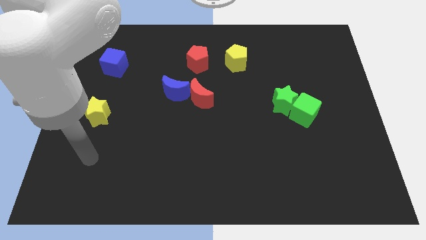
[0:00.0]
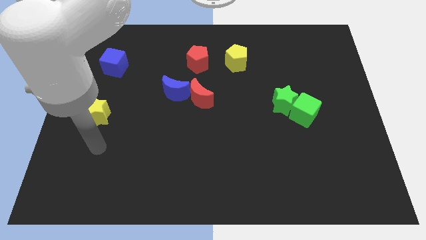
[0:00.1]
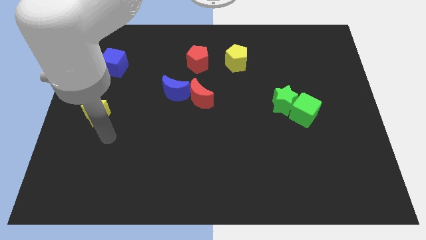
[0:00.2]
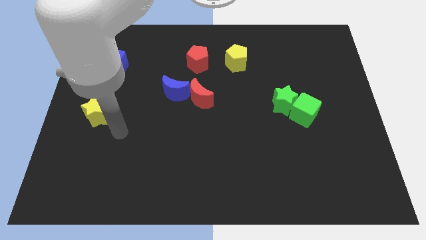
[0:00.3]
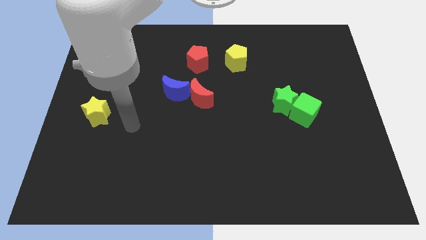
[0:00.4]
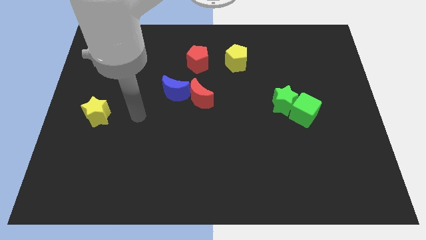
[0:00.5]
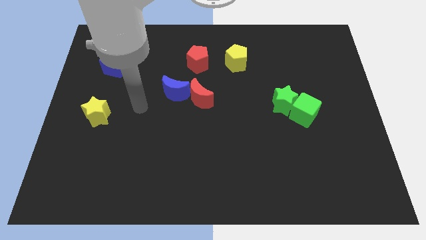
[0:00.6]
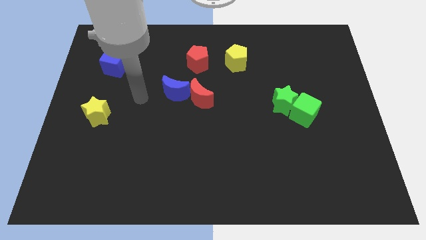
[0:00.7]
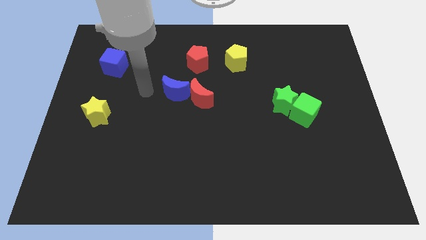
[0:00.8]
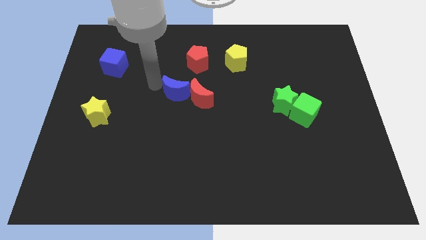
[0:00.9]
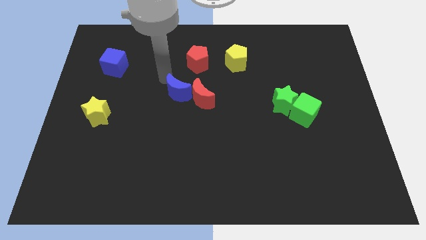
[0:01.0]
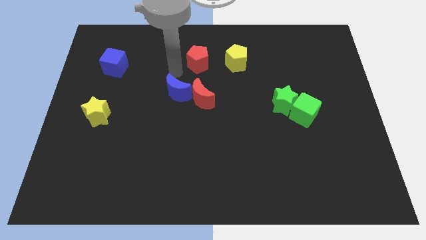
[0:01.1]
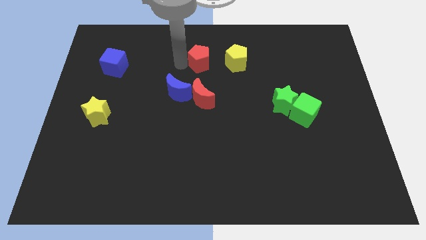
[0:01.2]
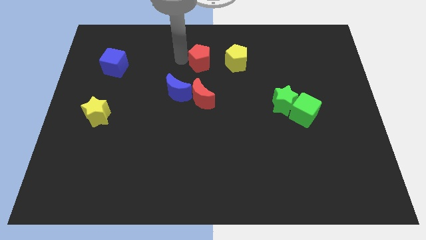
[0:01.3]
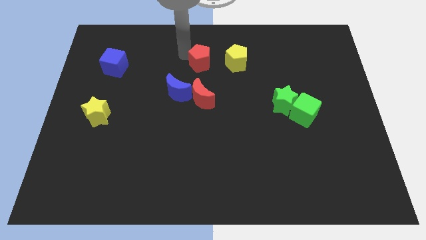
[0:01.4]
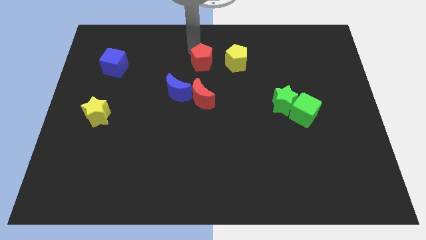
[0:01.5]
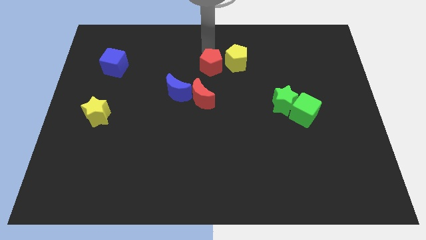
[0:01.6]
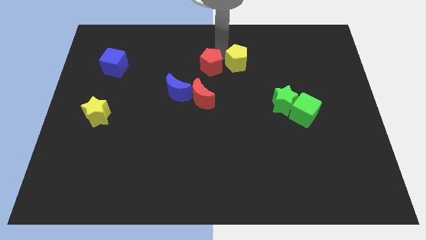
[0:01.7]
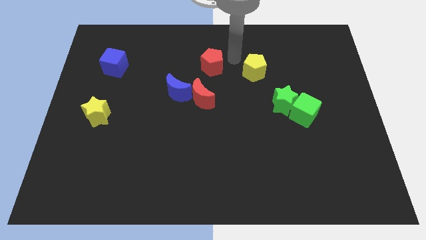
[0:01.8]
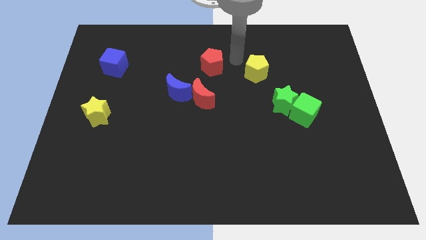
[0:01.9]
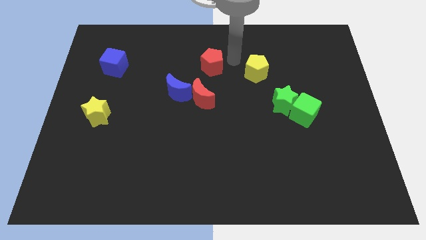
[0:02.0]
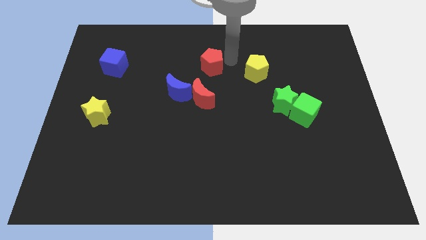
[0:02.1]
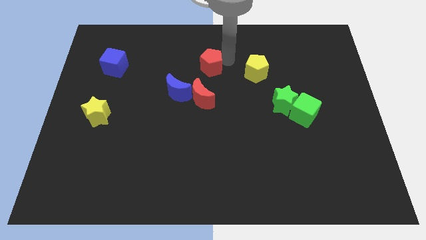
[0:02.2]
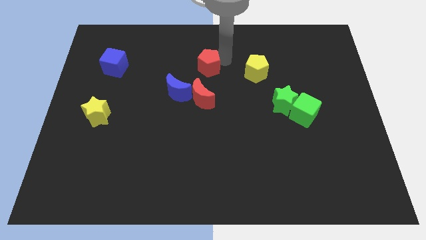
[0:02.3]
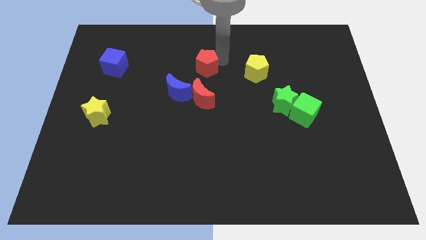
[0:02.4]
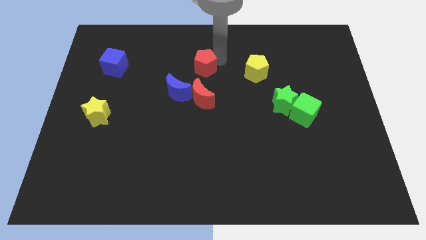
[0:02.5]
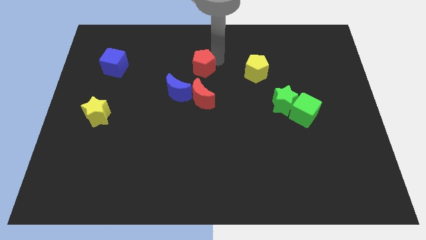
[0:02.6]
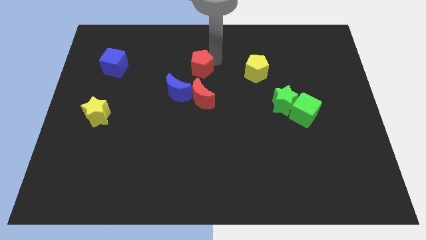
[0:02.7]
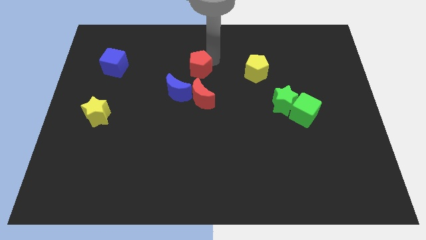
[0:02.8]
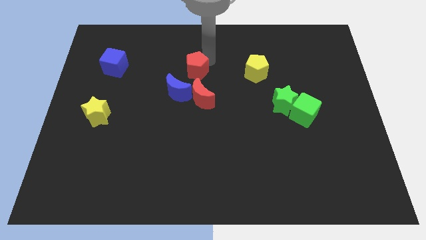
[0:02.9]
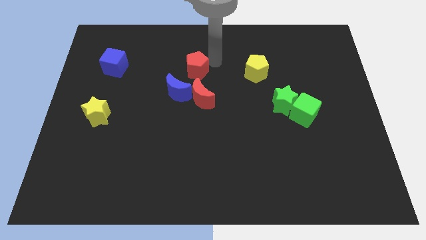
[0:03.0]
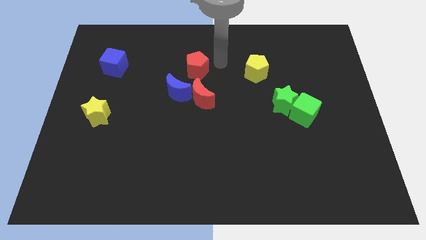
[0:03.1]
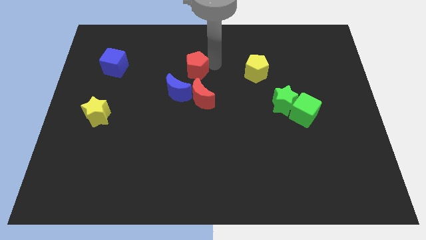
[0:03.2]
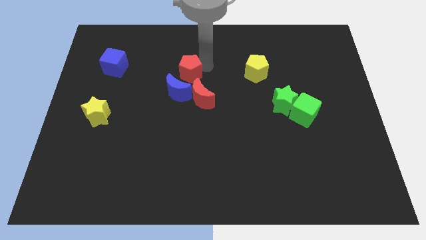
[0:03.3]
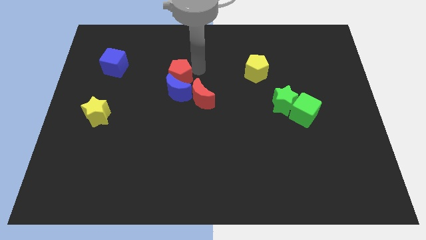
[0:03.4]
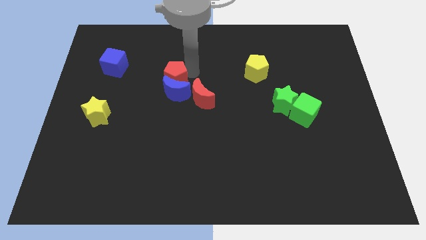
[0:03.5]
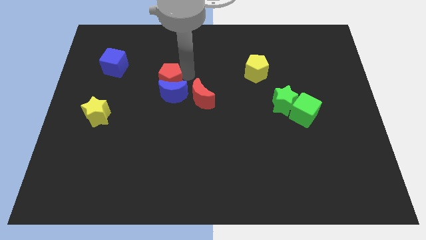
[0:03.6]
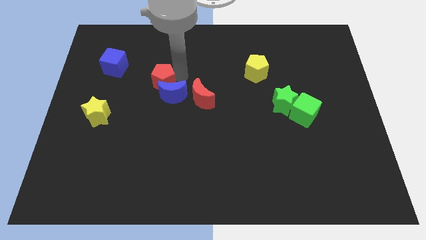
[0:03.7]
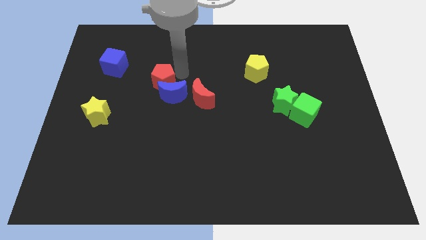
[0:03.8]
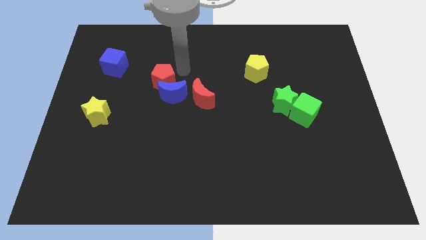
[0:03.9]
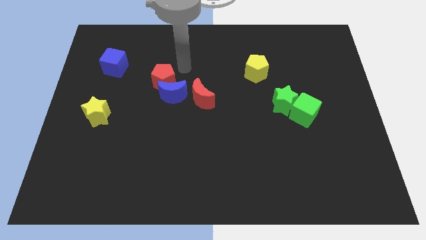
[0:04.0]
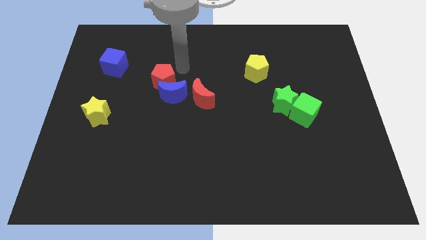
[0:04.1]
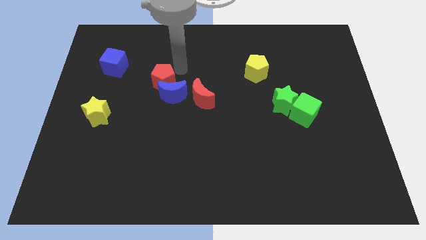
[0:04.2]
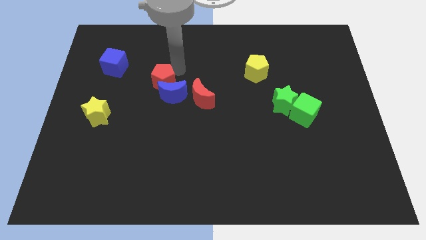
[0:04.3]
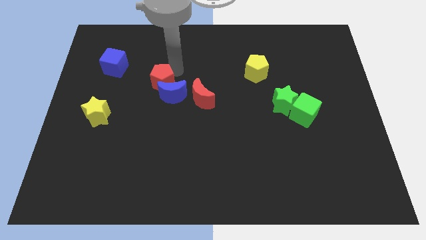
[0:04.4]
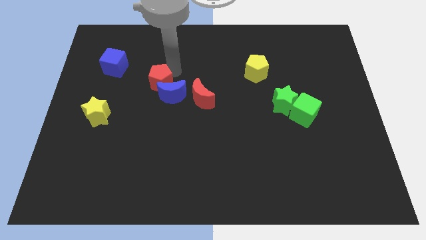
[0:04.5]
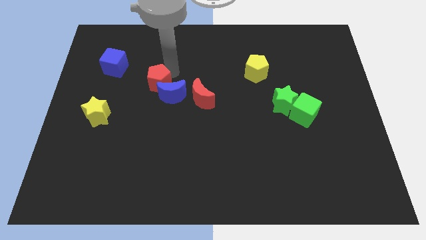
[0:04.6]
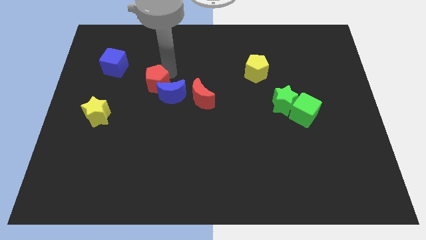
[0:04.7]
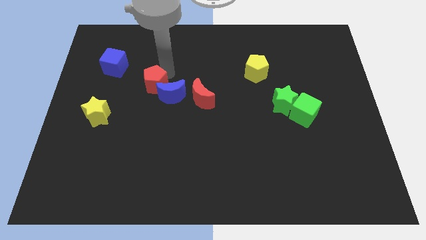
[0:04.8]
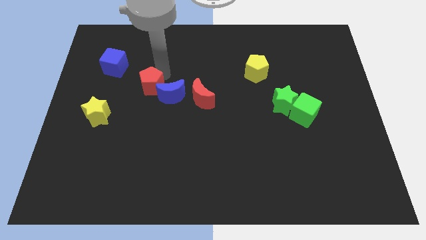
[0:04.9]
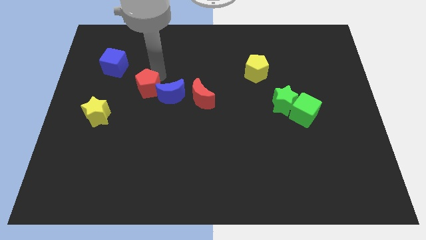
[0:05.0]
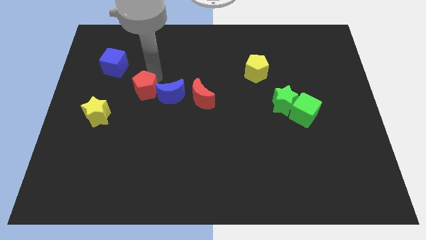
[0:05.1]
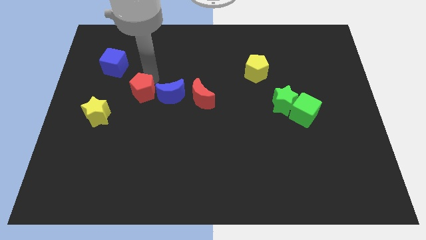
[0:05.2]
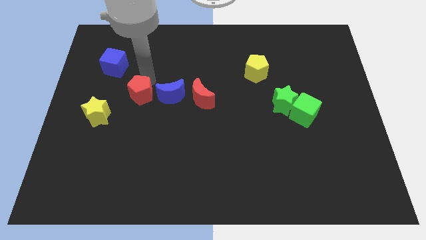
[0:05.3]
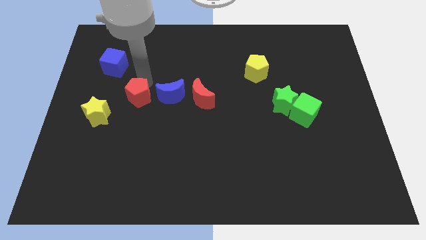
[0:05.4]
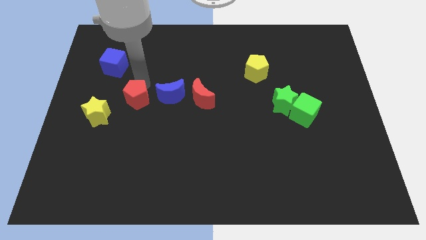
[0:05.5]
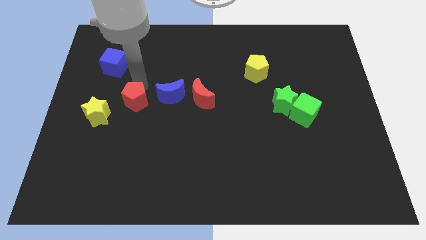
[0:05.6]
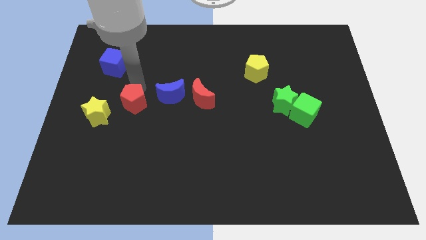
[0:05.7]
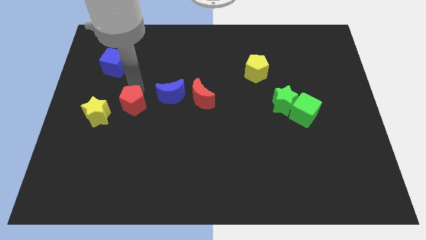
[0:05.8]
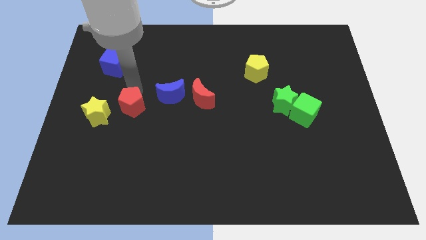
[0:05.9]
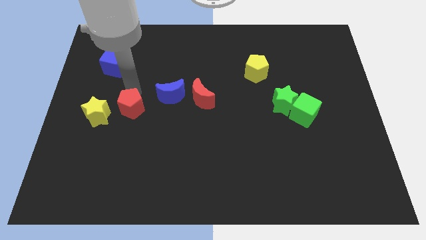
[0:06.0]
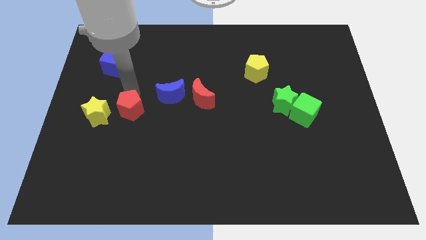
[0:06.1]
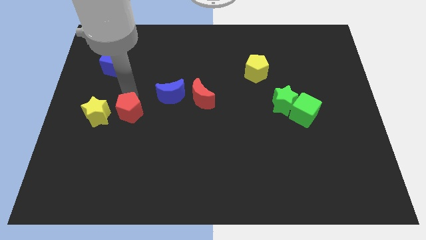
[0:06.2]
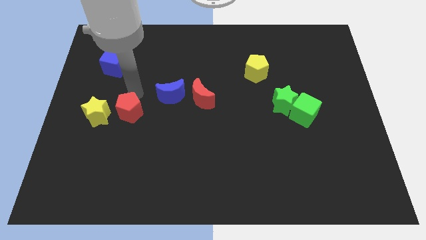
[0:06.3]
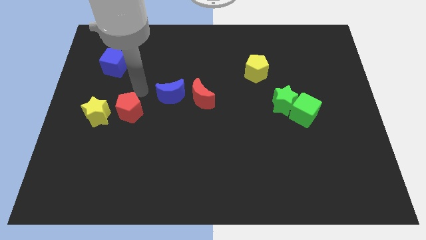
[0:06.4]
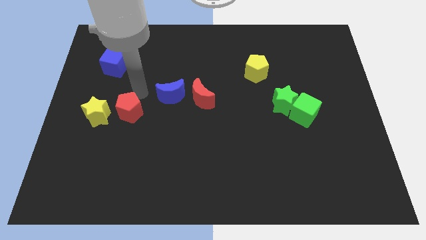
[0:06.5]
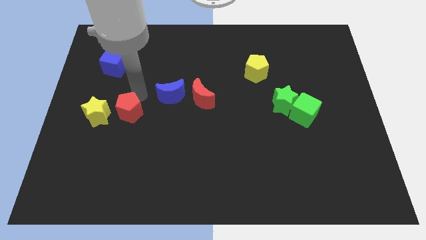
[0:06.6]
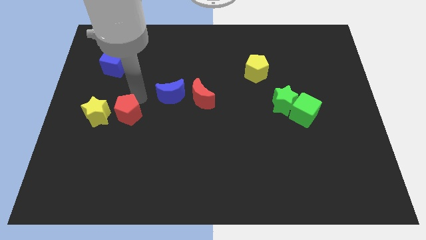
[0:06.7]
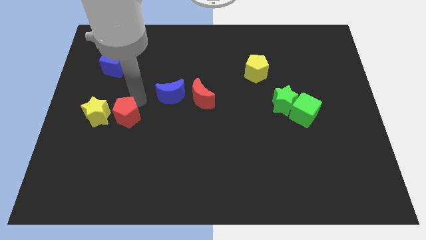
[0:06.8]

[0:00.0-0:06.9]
move the red pentagon to the bottom right side of the yellow star
